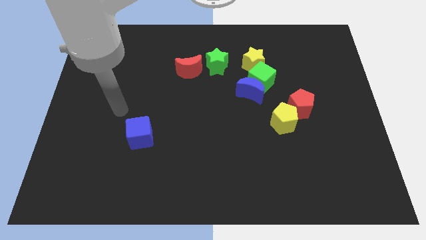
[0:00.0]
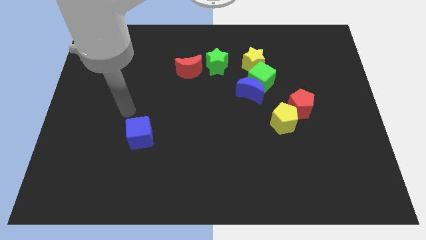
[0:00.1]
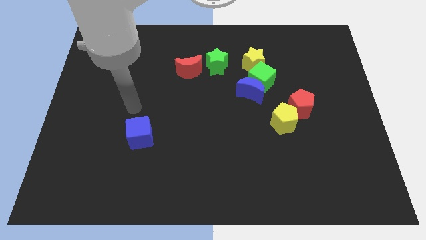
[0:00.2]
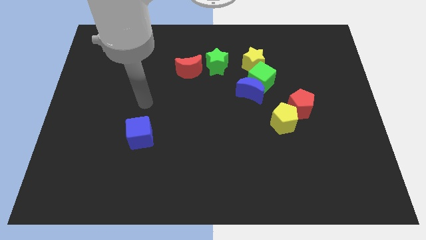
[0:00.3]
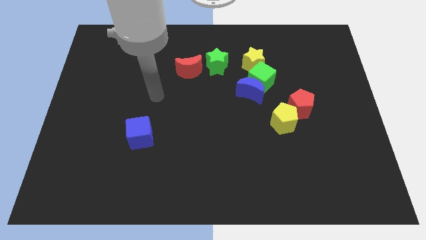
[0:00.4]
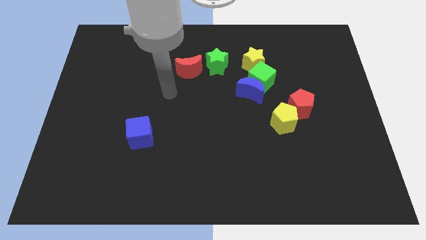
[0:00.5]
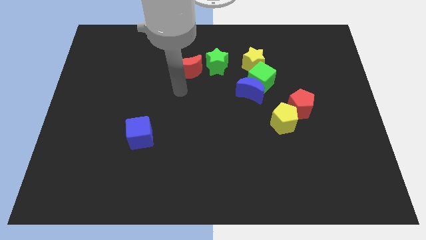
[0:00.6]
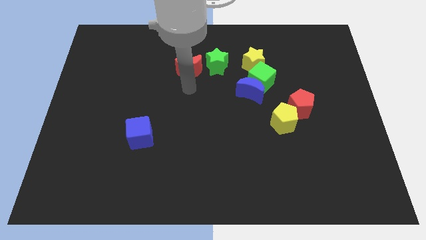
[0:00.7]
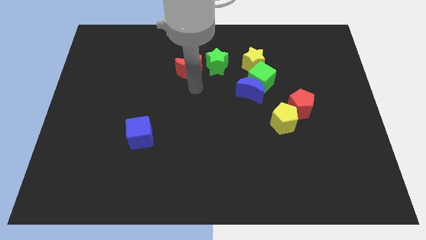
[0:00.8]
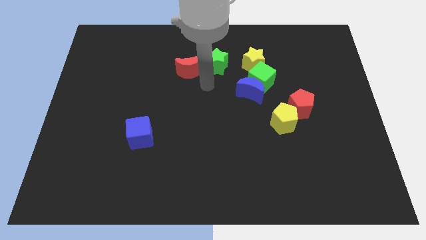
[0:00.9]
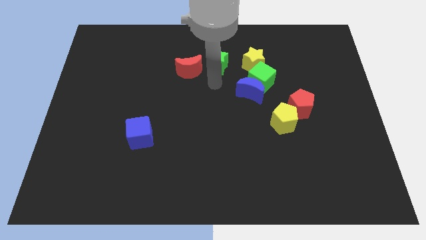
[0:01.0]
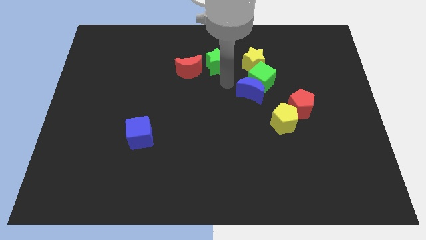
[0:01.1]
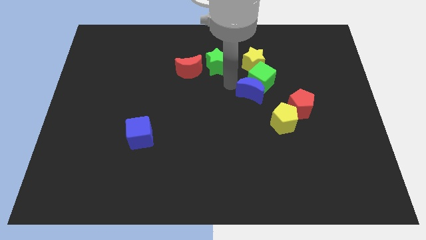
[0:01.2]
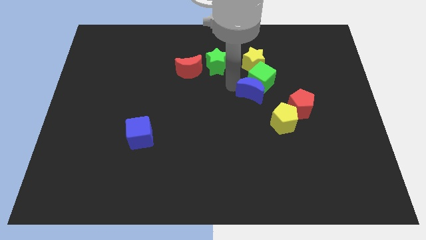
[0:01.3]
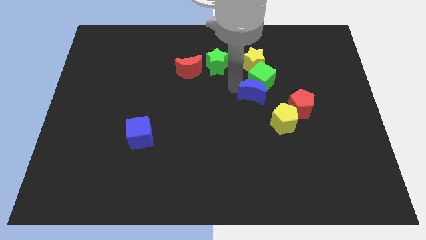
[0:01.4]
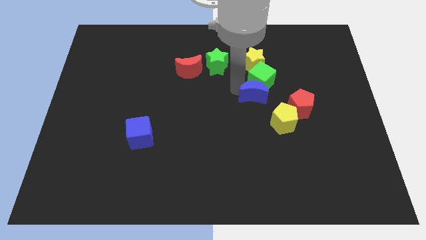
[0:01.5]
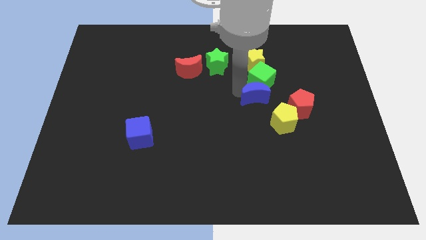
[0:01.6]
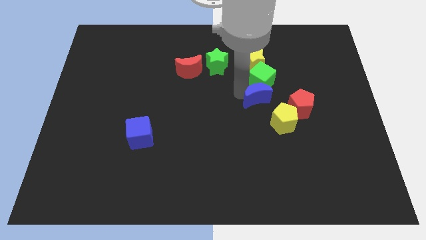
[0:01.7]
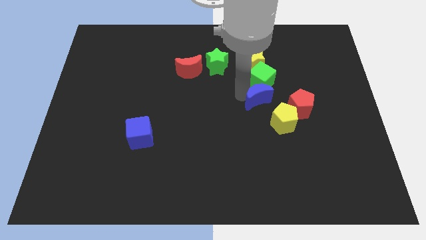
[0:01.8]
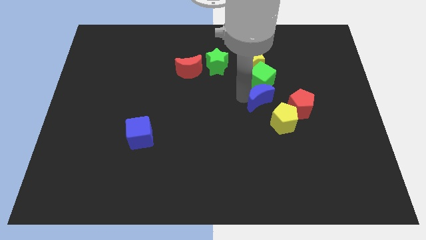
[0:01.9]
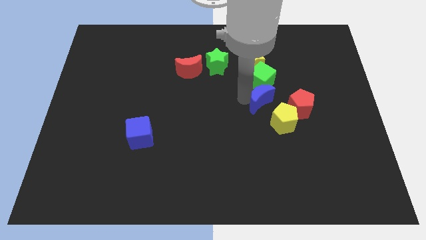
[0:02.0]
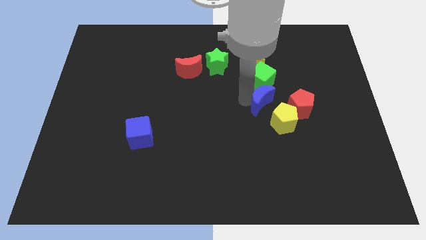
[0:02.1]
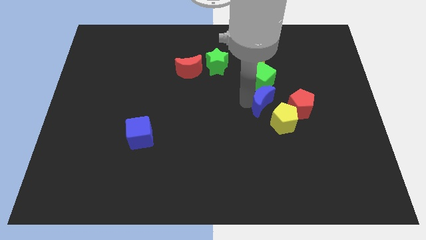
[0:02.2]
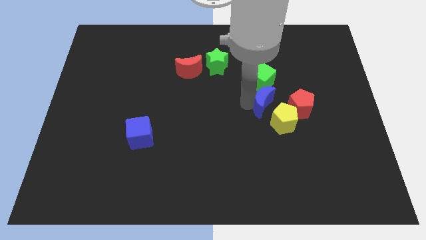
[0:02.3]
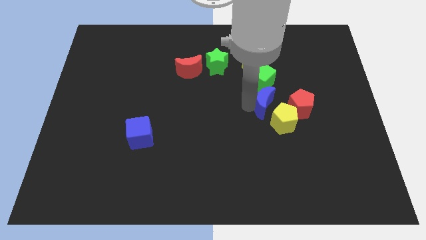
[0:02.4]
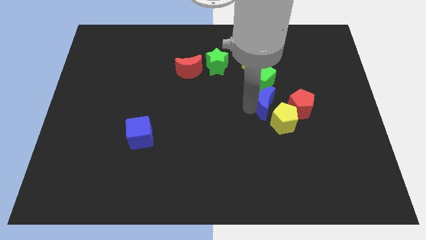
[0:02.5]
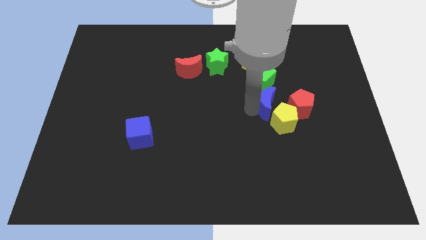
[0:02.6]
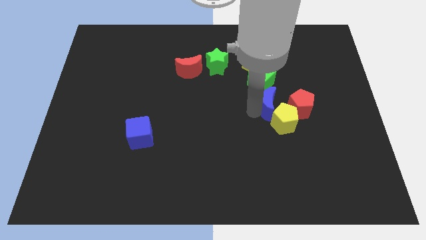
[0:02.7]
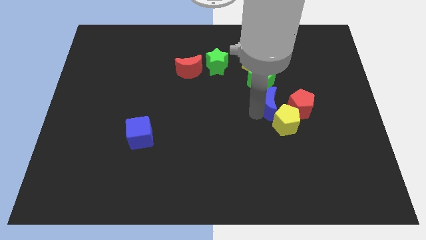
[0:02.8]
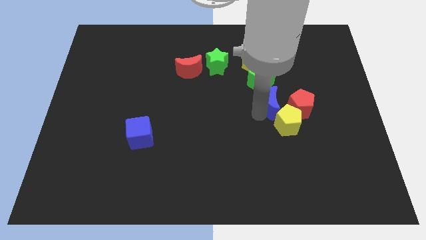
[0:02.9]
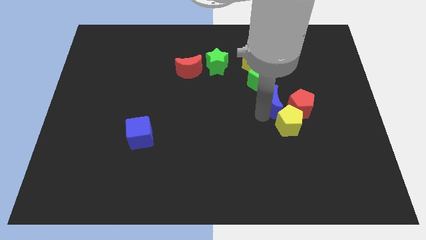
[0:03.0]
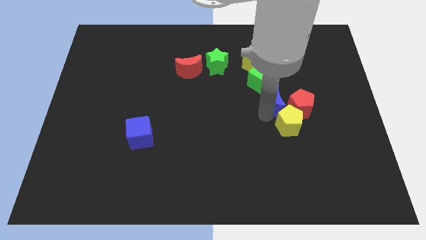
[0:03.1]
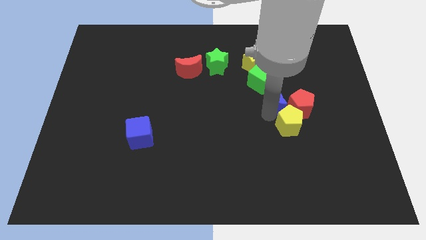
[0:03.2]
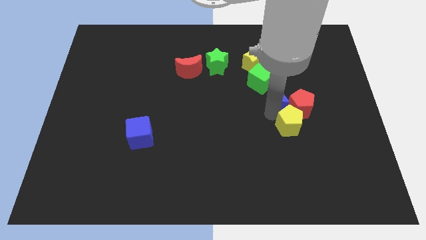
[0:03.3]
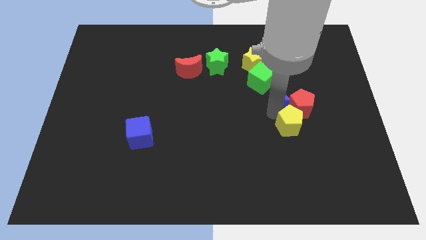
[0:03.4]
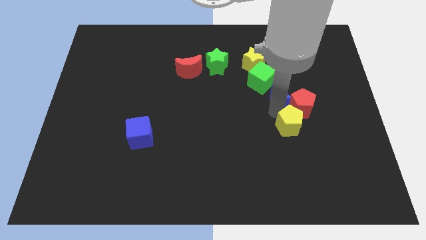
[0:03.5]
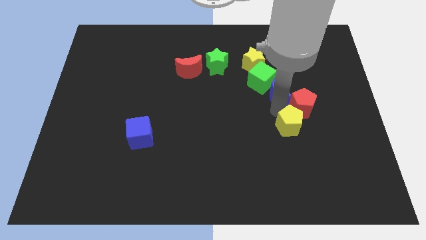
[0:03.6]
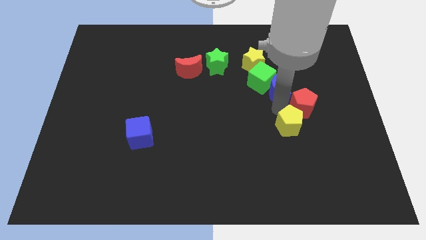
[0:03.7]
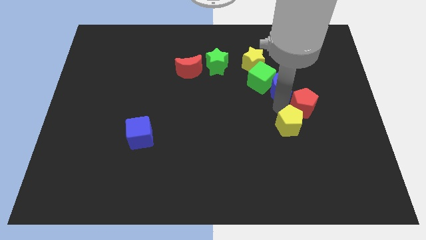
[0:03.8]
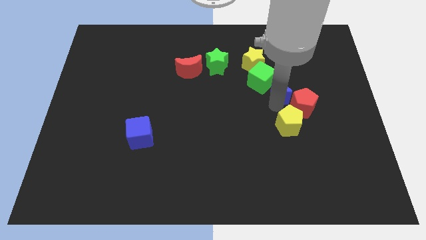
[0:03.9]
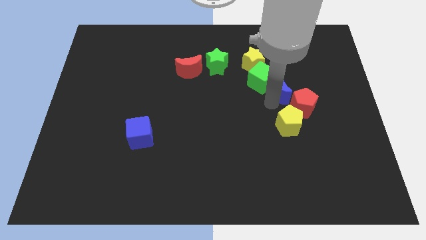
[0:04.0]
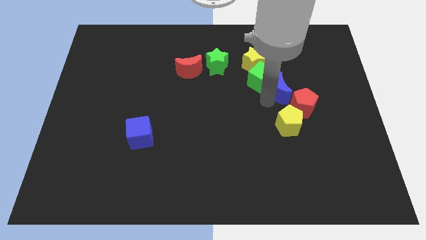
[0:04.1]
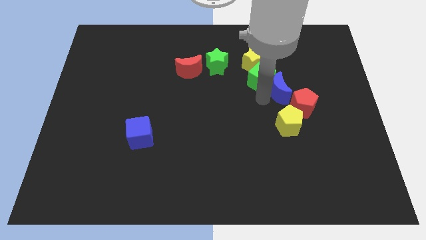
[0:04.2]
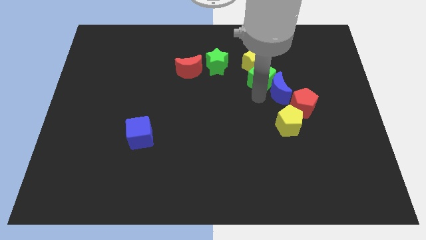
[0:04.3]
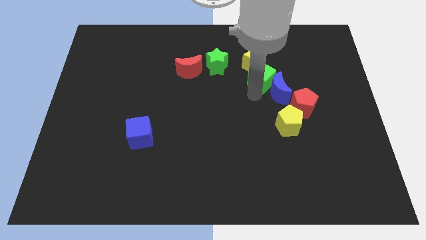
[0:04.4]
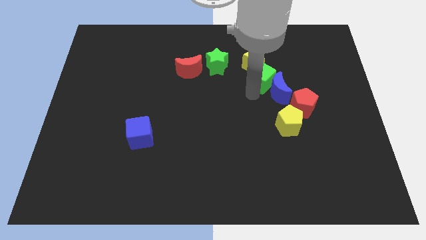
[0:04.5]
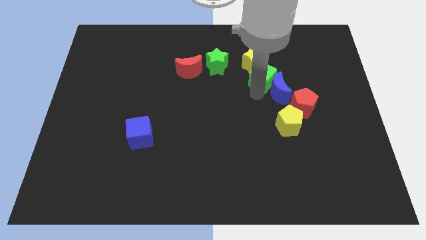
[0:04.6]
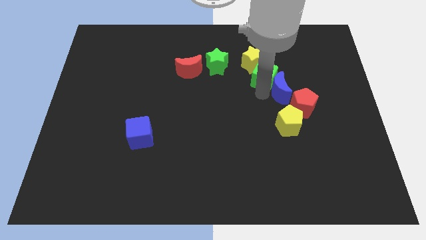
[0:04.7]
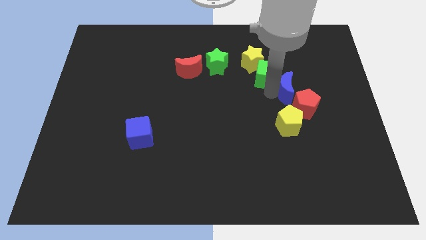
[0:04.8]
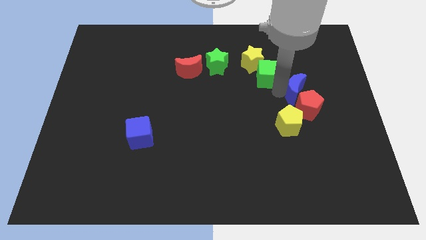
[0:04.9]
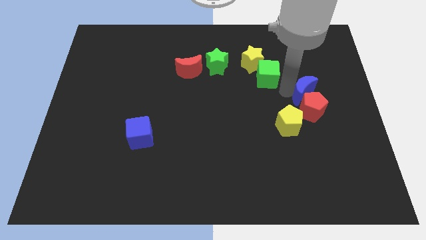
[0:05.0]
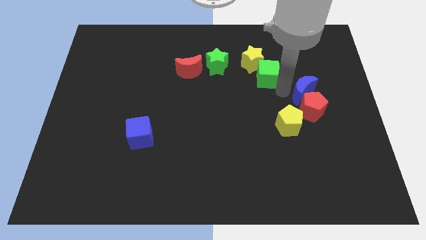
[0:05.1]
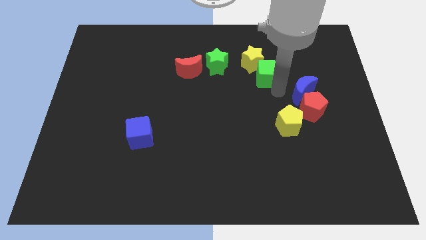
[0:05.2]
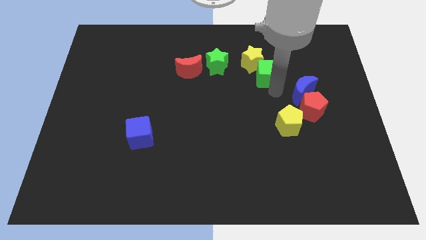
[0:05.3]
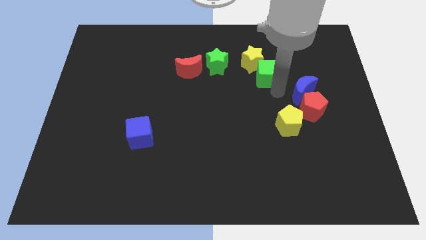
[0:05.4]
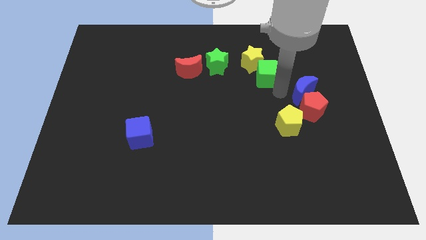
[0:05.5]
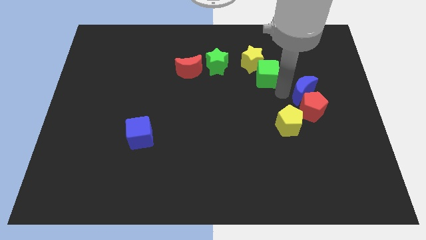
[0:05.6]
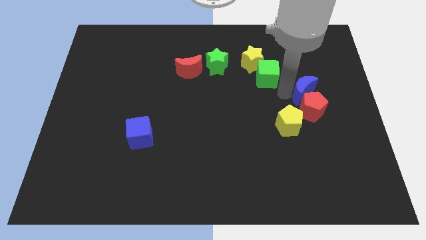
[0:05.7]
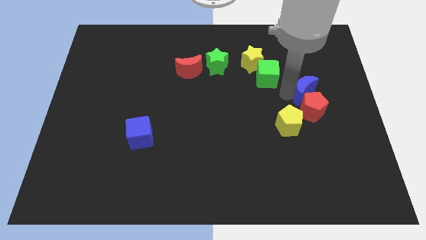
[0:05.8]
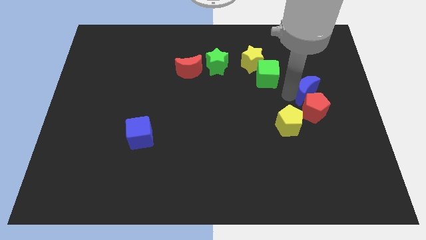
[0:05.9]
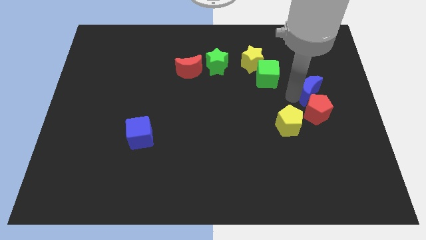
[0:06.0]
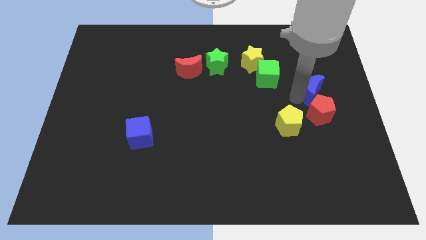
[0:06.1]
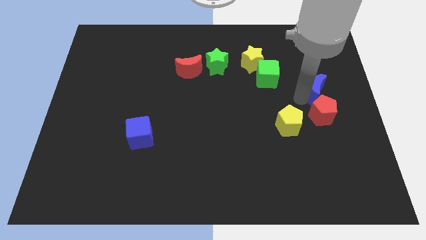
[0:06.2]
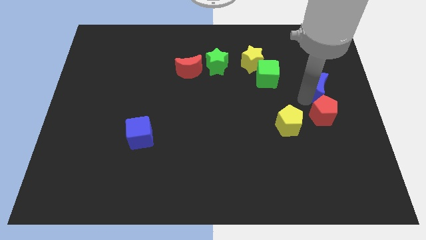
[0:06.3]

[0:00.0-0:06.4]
slide the blue moon to the center right
